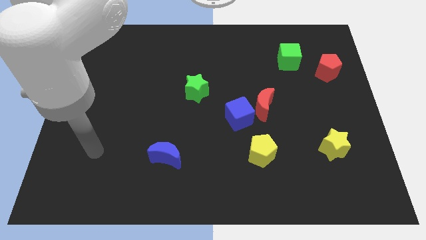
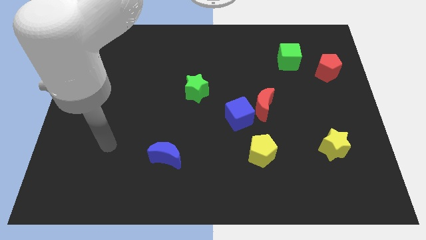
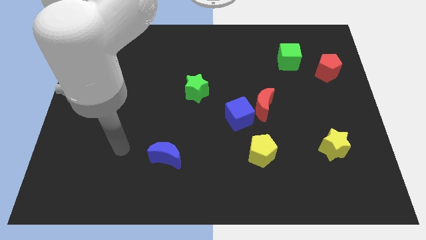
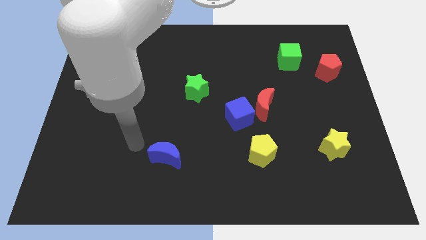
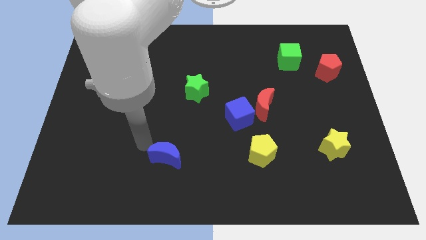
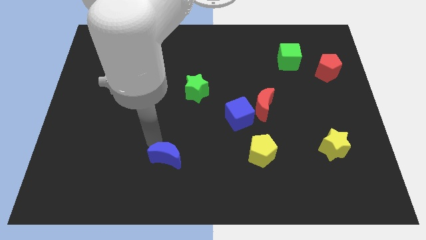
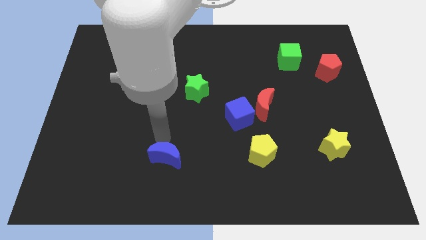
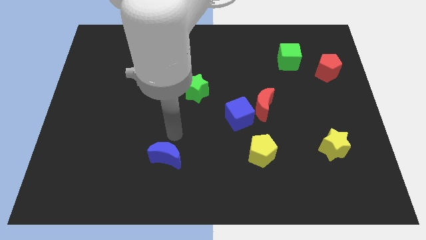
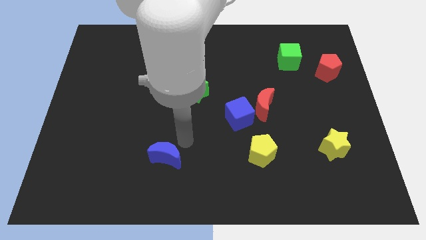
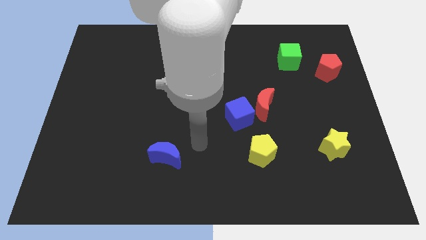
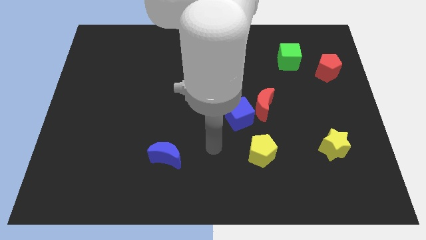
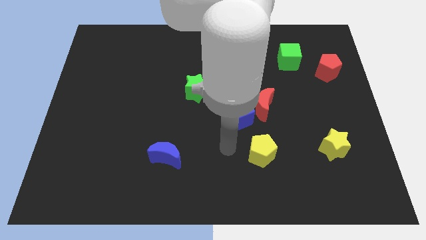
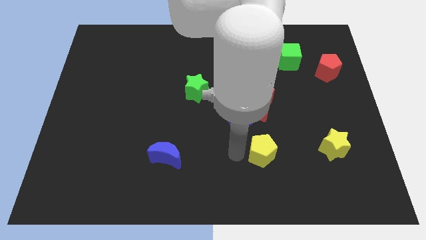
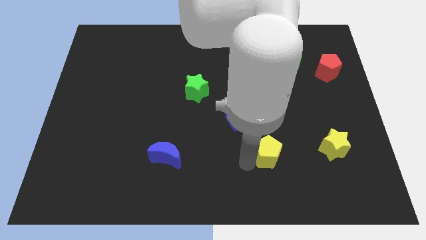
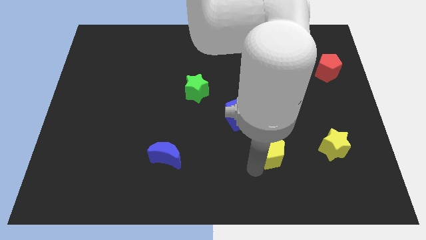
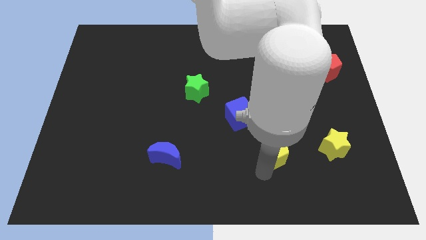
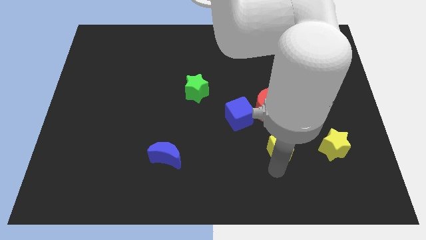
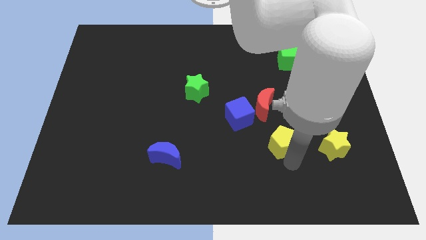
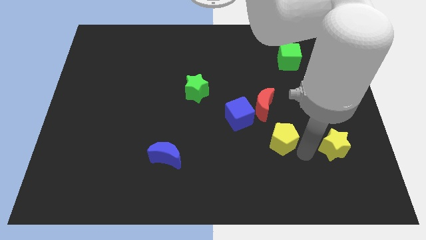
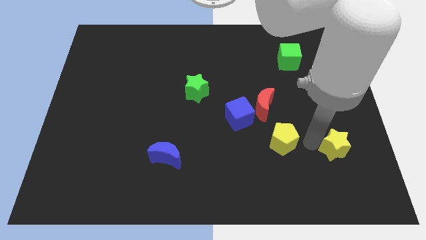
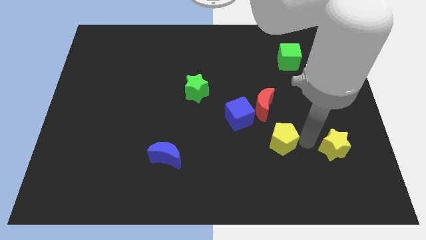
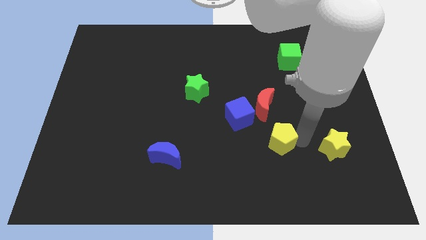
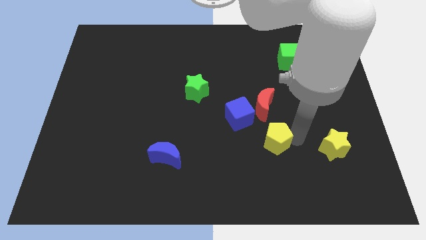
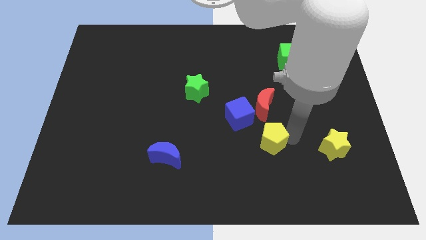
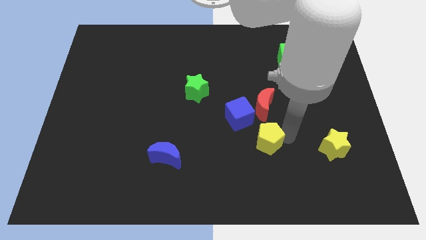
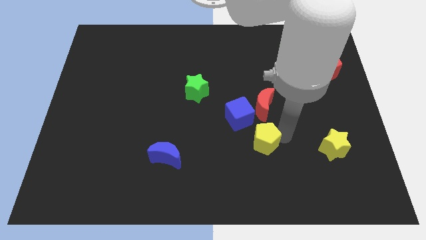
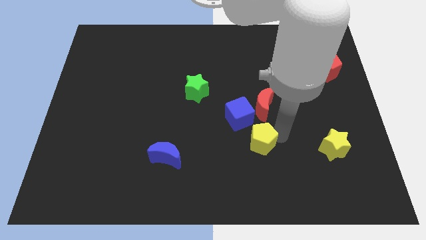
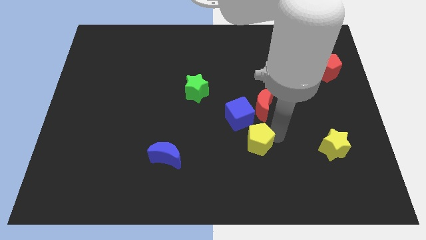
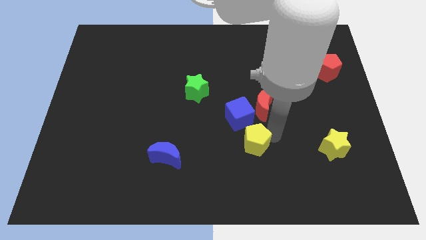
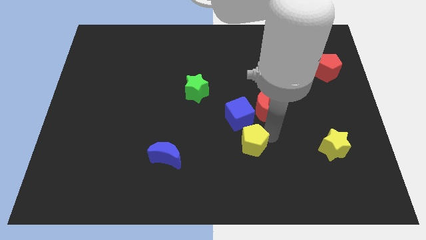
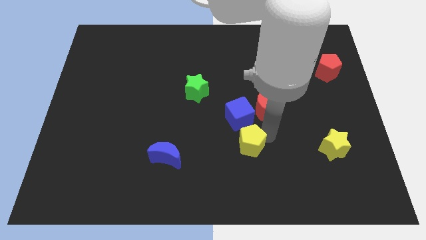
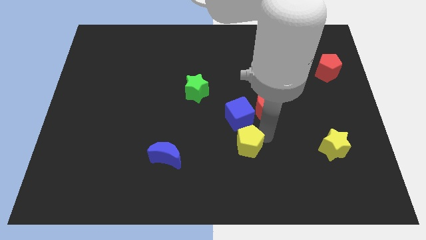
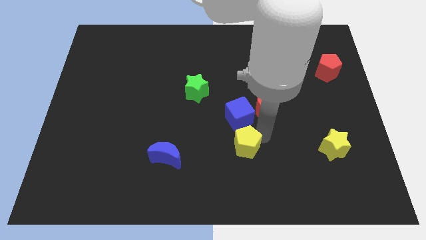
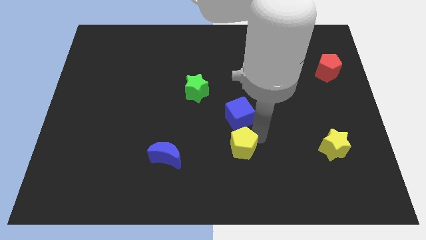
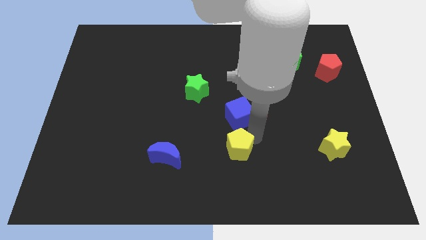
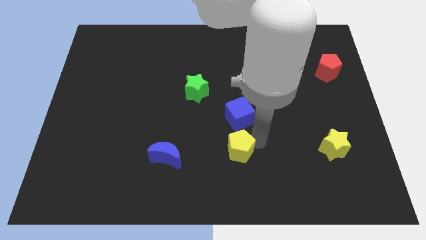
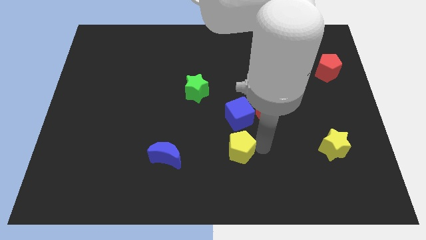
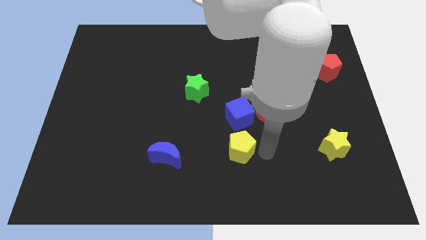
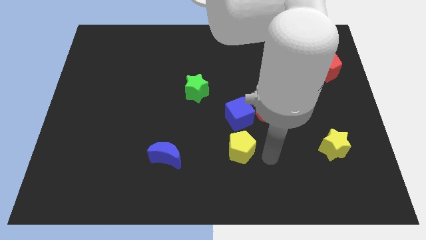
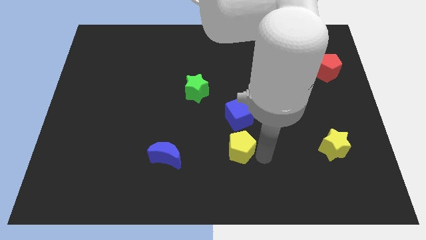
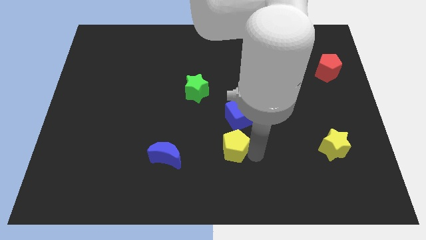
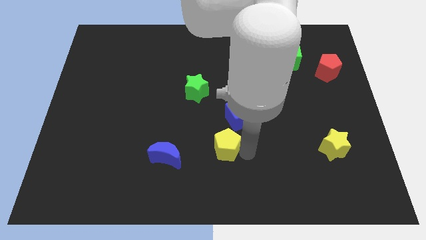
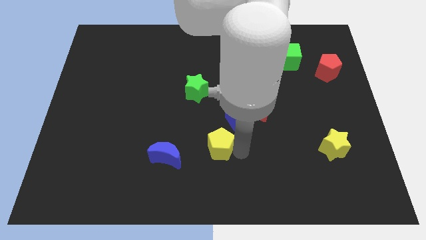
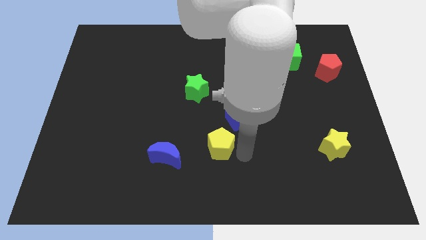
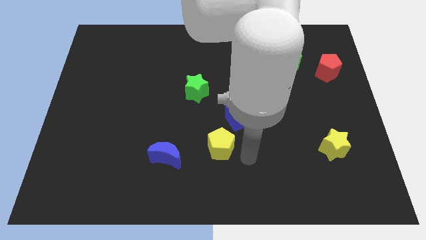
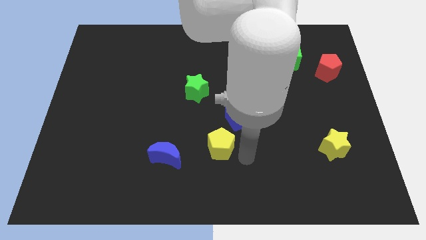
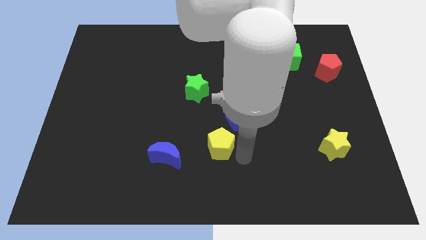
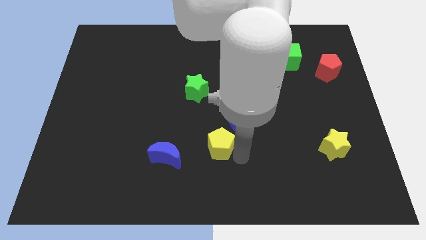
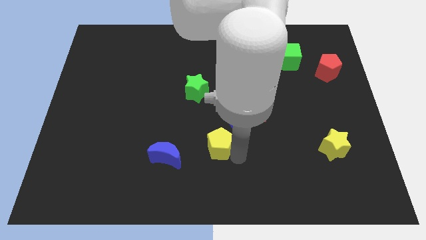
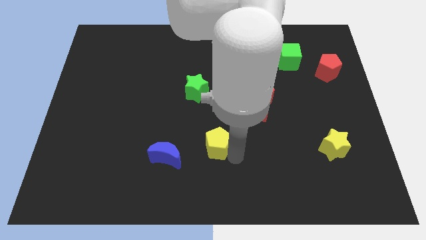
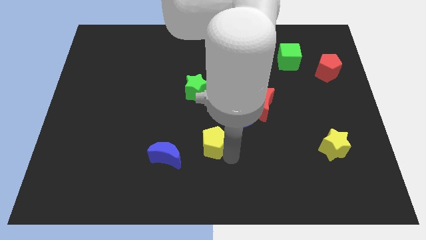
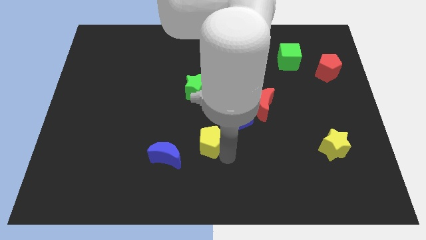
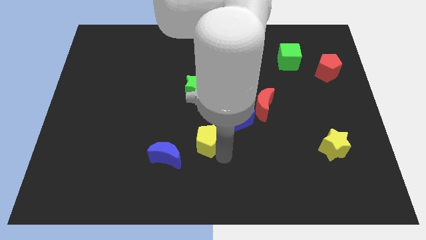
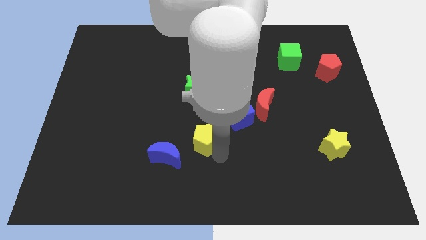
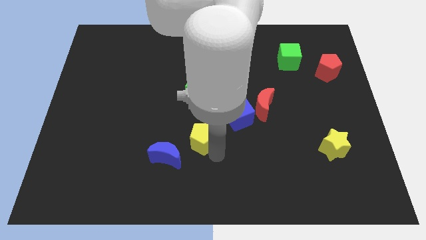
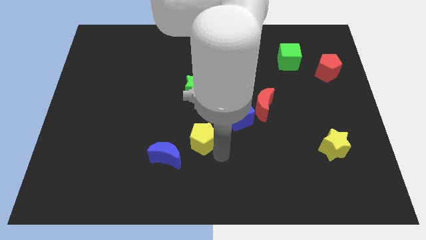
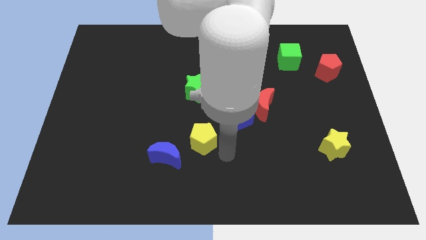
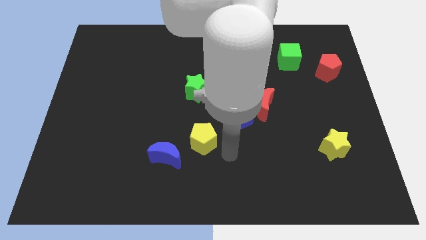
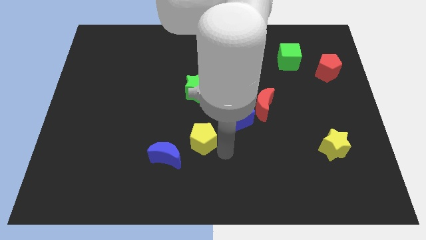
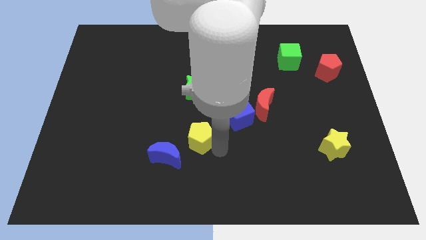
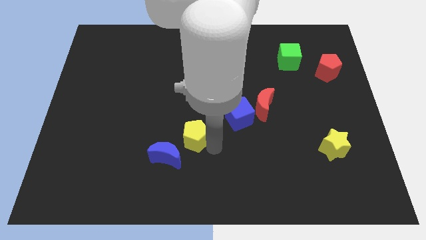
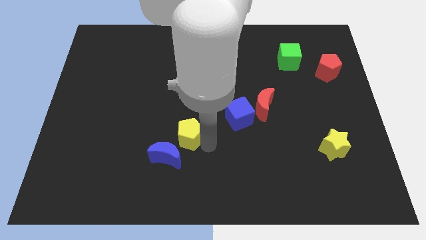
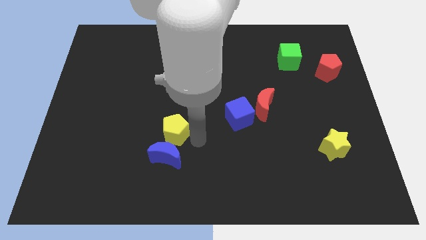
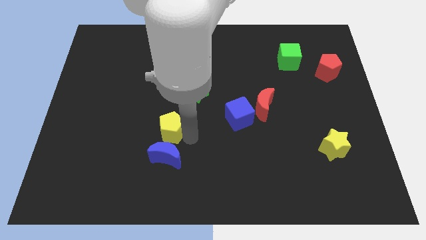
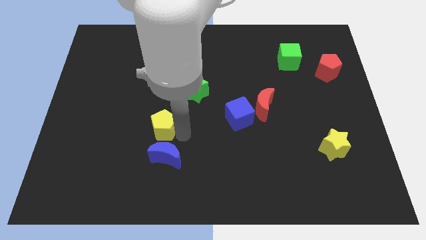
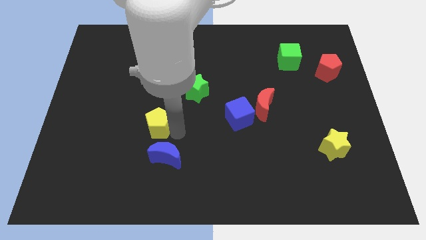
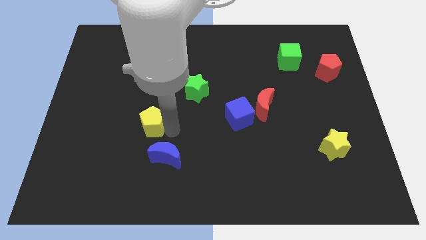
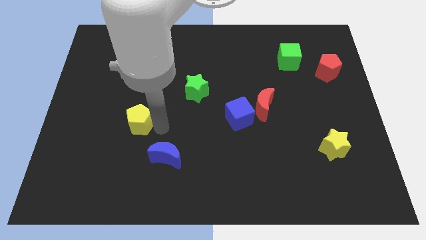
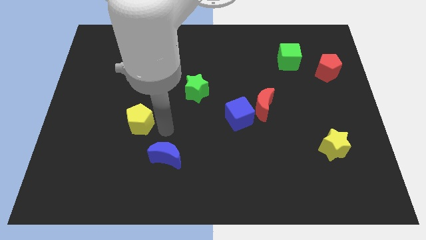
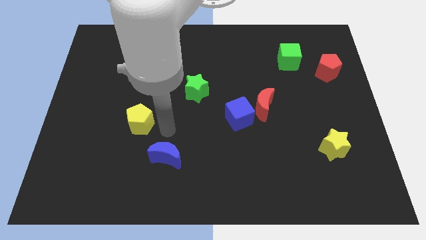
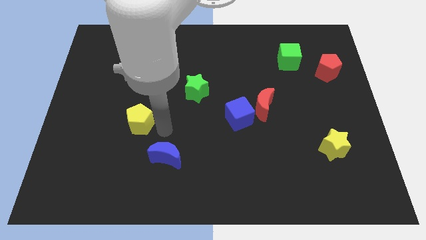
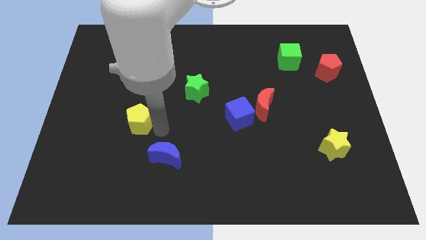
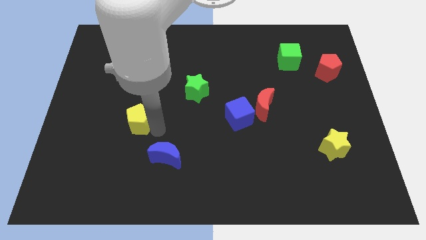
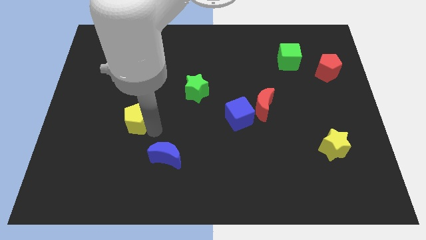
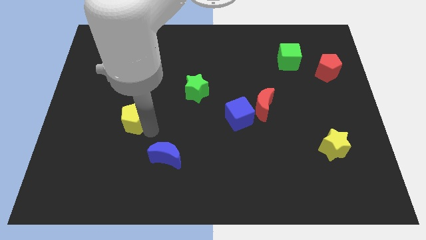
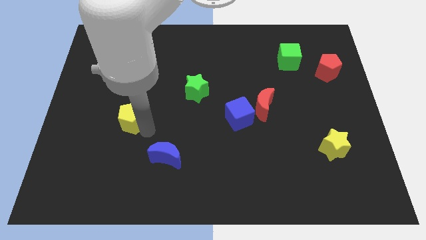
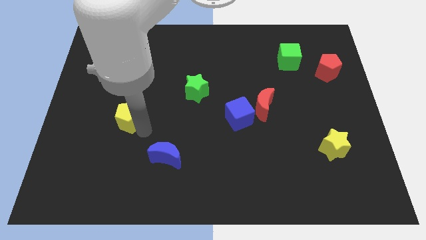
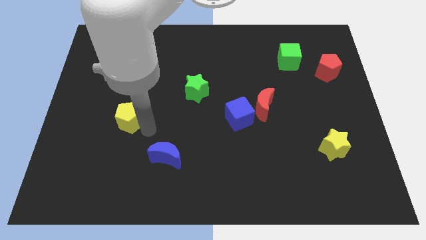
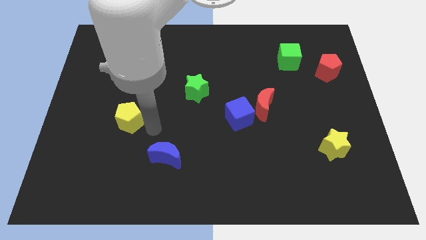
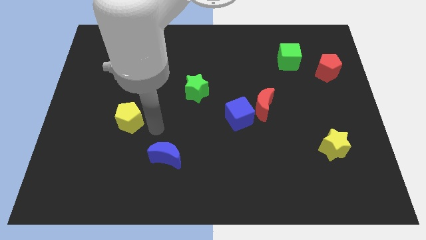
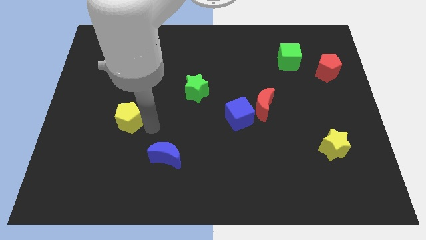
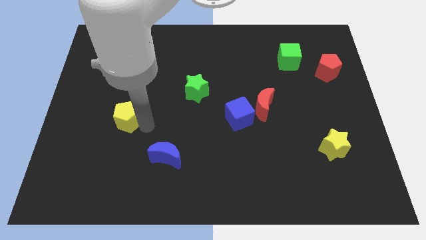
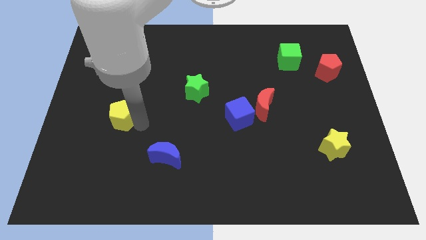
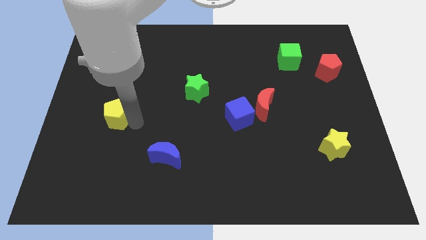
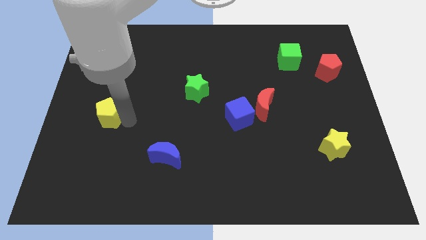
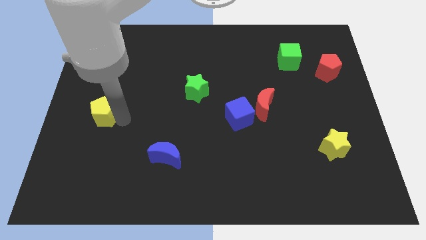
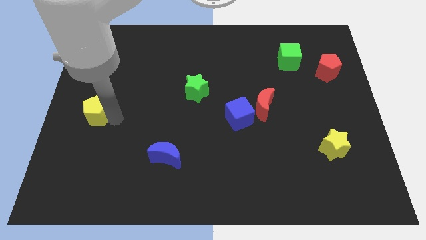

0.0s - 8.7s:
move the yellow pentagon to the left side
